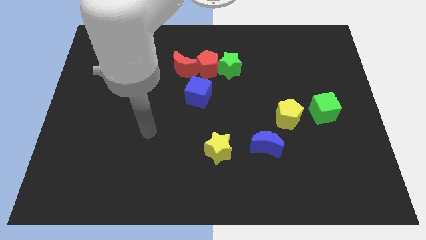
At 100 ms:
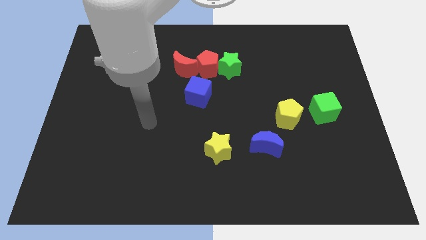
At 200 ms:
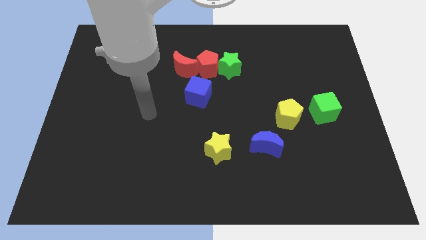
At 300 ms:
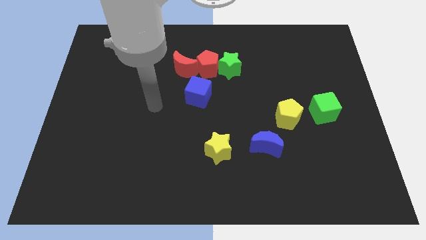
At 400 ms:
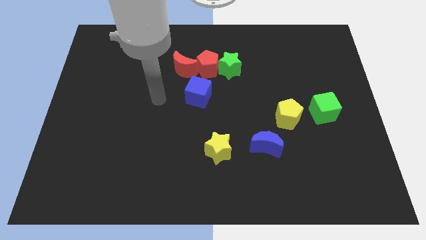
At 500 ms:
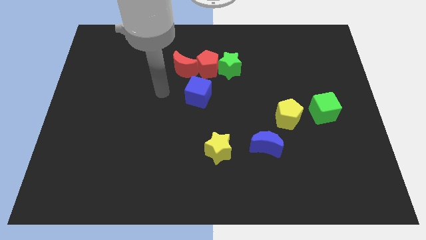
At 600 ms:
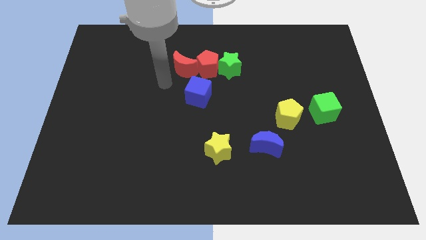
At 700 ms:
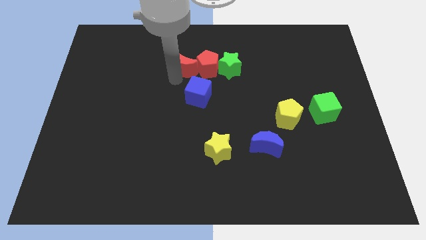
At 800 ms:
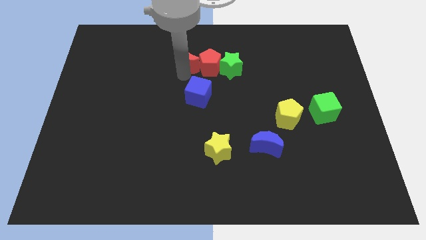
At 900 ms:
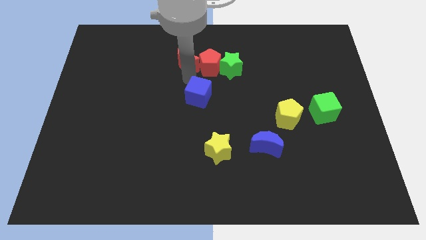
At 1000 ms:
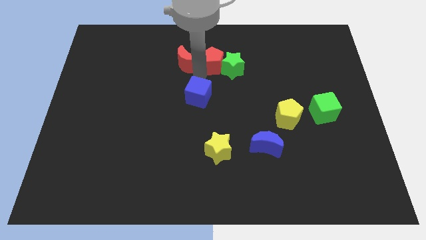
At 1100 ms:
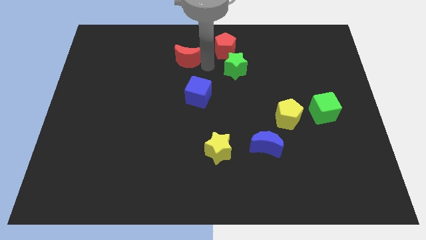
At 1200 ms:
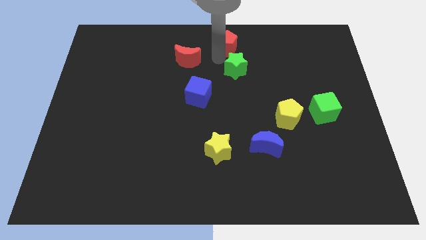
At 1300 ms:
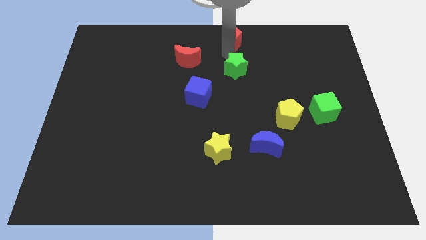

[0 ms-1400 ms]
separate the green star from the red pentagon

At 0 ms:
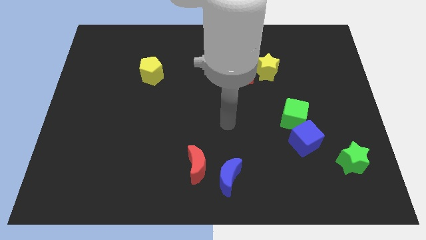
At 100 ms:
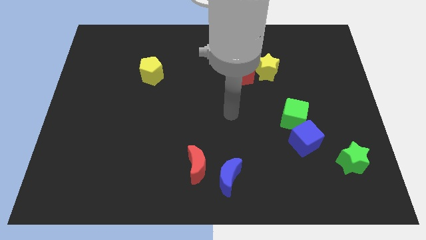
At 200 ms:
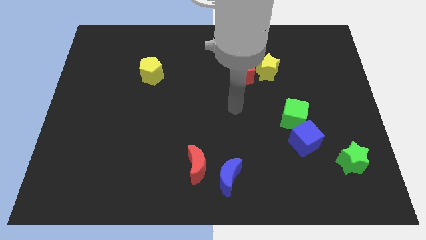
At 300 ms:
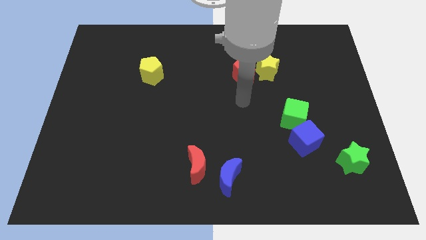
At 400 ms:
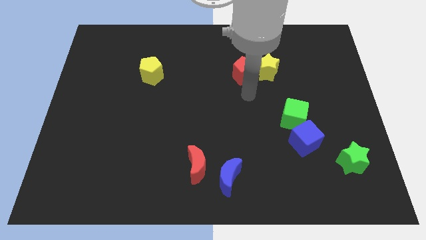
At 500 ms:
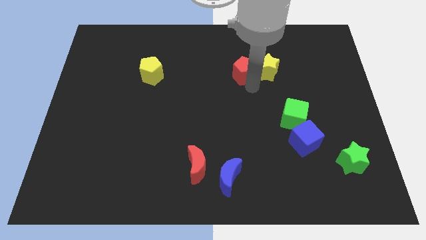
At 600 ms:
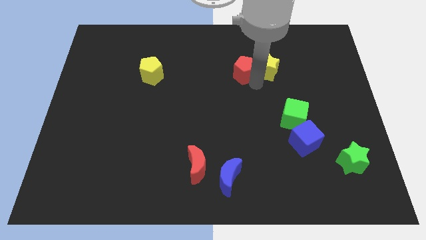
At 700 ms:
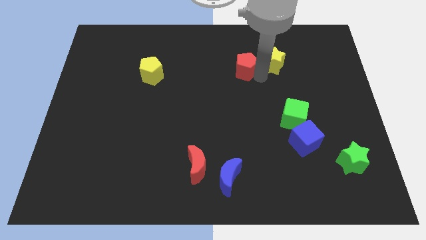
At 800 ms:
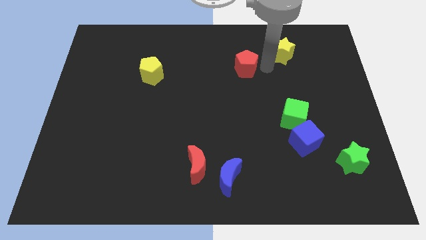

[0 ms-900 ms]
separate the red pentagon from the yellow star

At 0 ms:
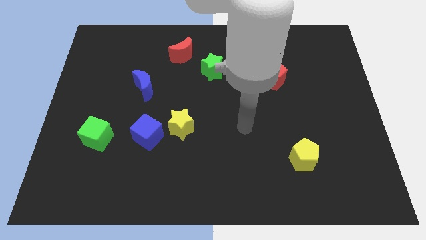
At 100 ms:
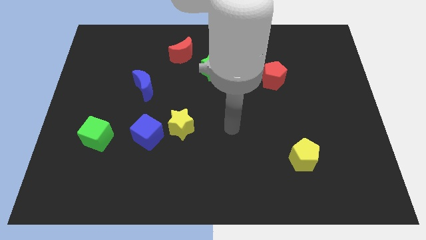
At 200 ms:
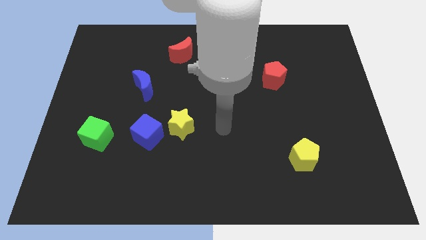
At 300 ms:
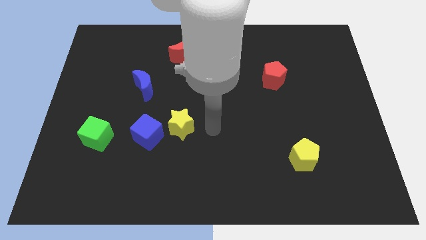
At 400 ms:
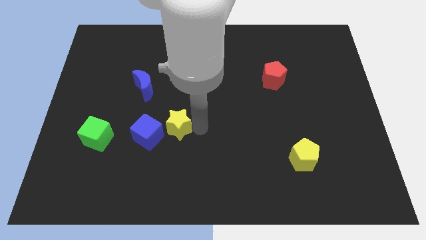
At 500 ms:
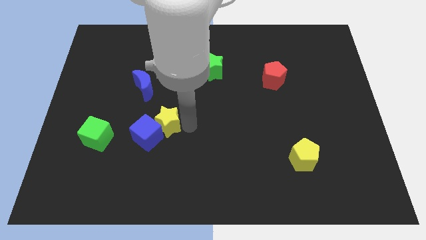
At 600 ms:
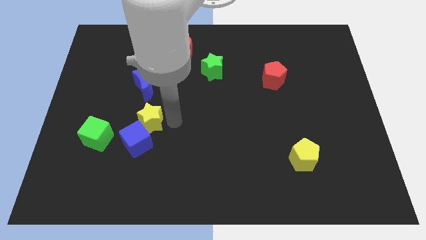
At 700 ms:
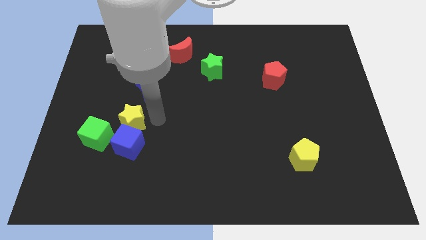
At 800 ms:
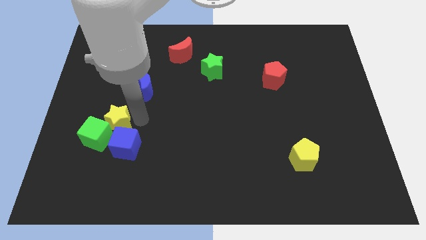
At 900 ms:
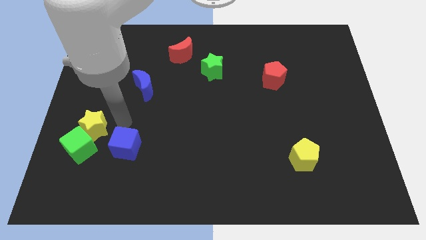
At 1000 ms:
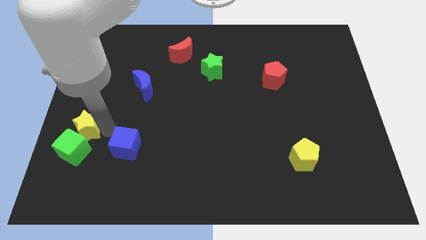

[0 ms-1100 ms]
separate the blue cube from the yellow star

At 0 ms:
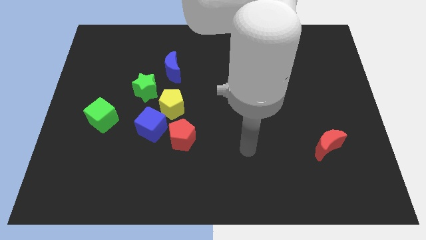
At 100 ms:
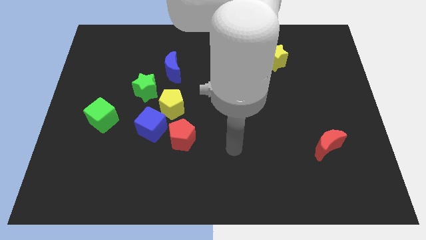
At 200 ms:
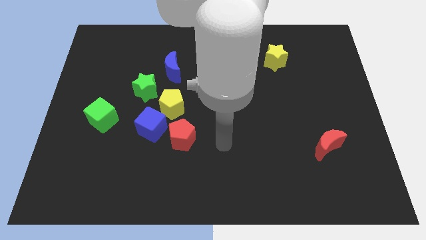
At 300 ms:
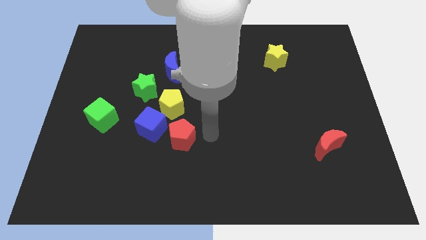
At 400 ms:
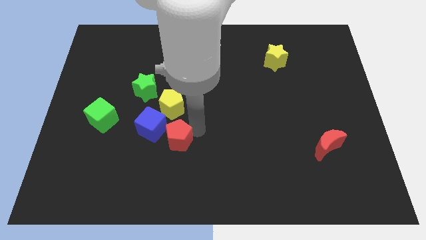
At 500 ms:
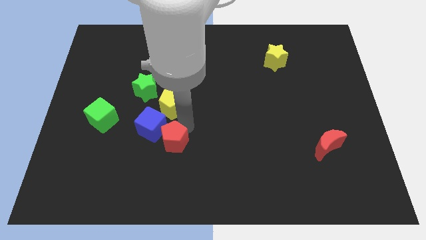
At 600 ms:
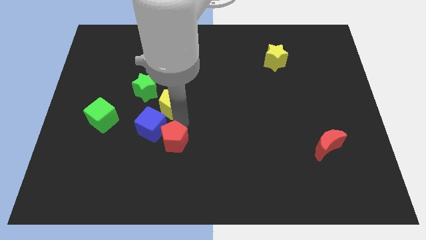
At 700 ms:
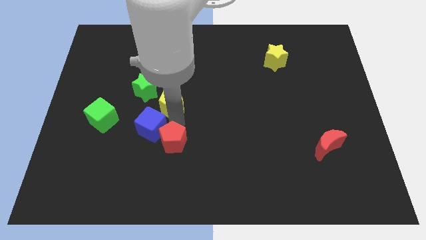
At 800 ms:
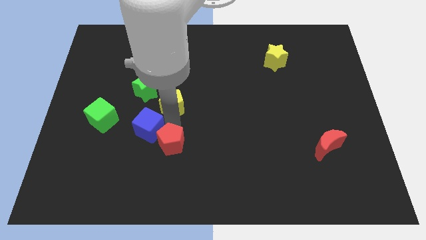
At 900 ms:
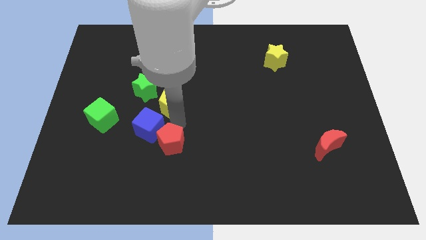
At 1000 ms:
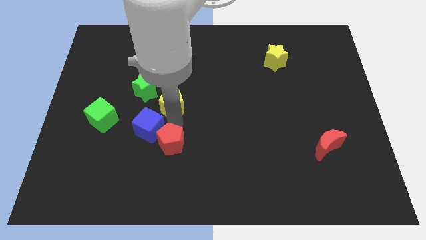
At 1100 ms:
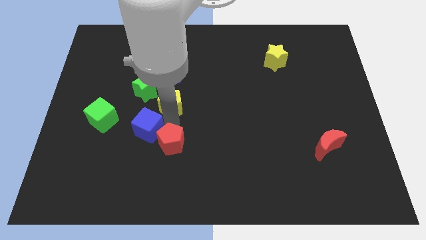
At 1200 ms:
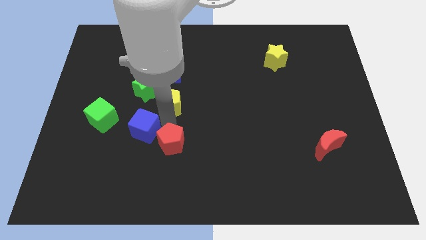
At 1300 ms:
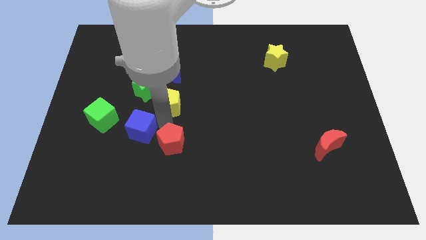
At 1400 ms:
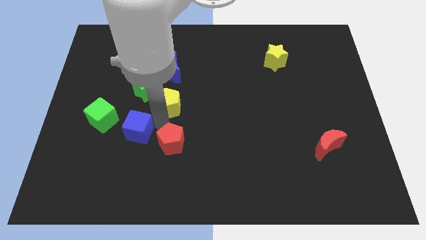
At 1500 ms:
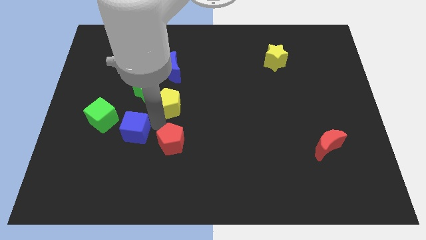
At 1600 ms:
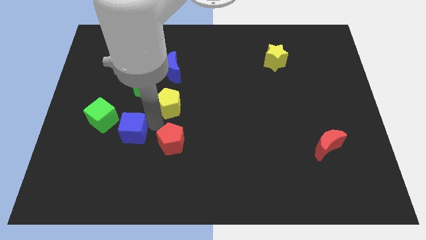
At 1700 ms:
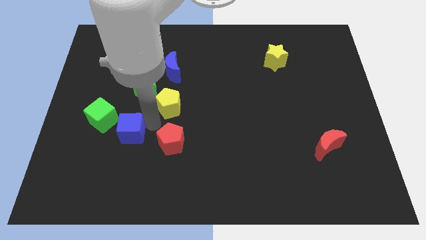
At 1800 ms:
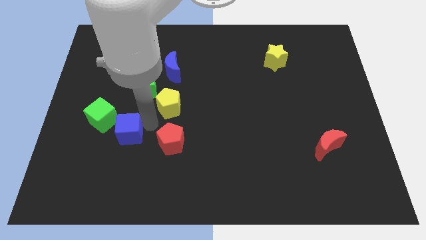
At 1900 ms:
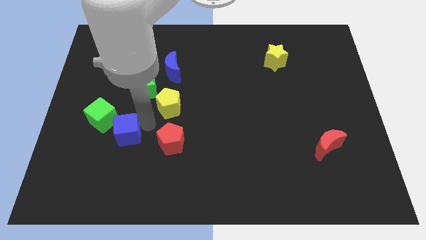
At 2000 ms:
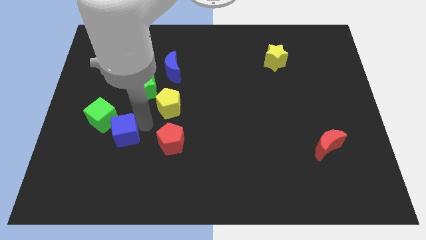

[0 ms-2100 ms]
move the blue cube away from the yellow pentagon and red pentagon

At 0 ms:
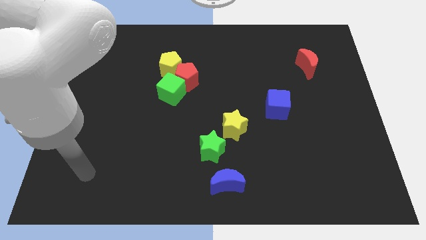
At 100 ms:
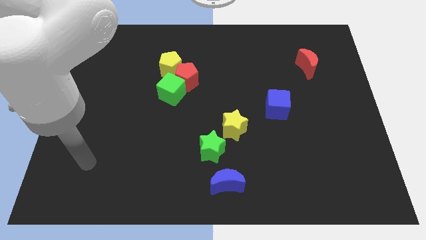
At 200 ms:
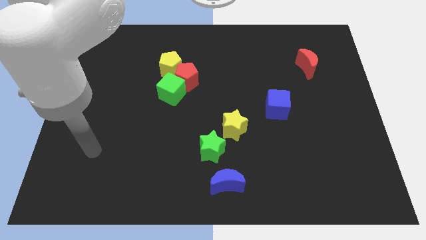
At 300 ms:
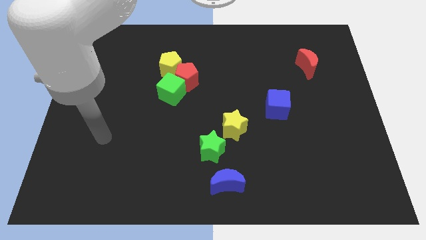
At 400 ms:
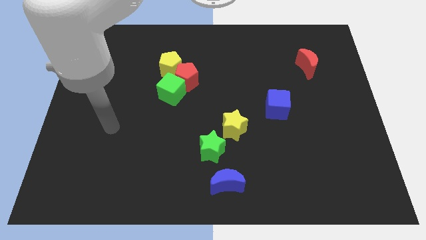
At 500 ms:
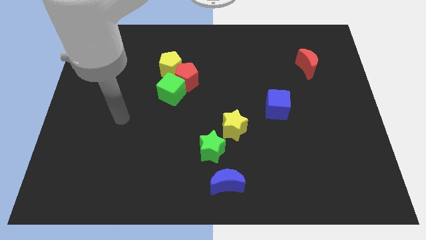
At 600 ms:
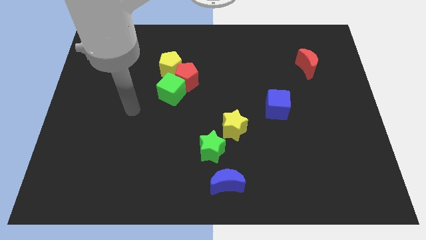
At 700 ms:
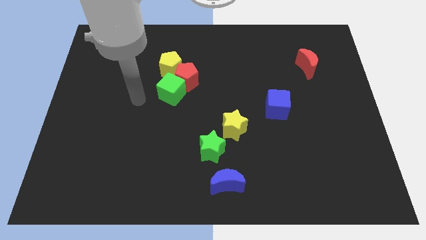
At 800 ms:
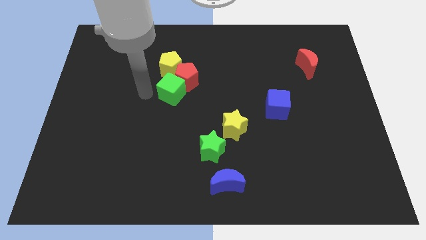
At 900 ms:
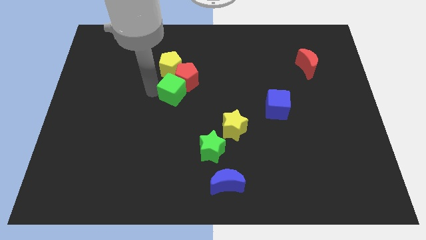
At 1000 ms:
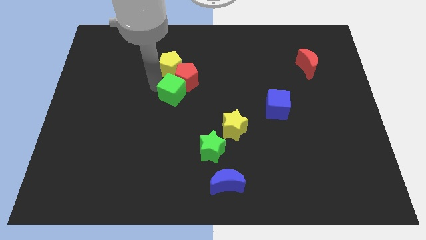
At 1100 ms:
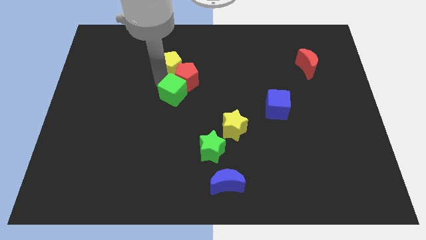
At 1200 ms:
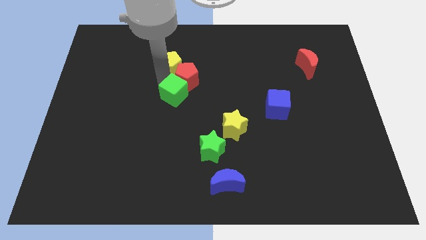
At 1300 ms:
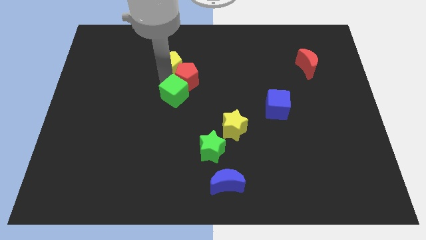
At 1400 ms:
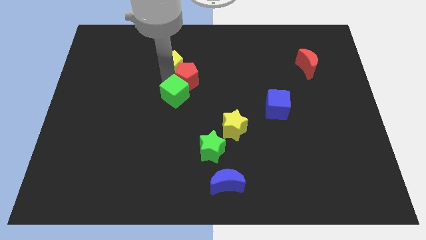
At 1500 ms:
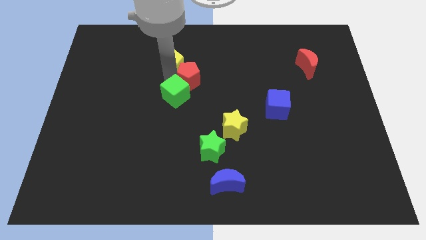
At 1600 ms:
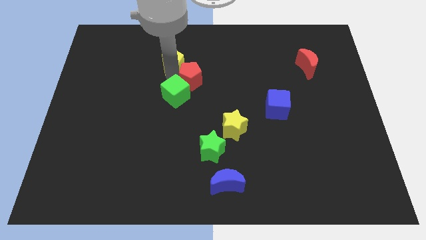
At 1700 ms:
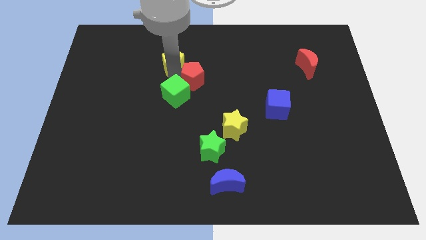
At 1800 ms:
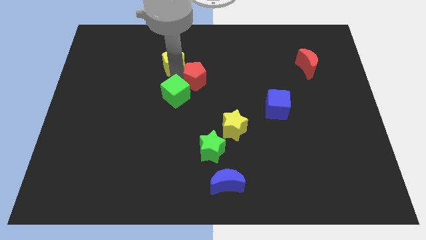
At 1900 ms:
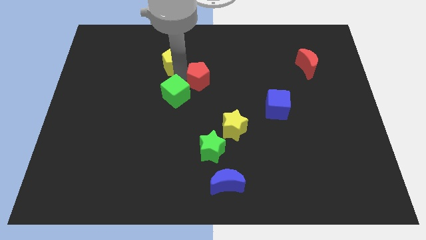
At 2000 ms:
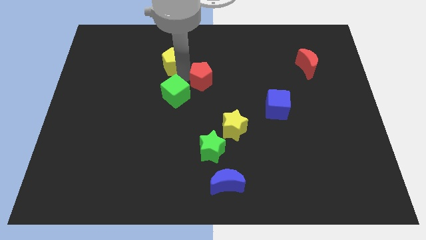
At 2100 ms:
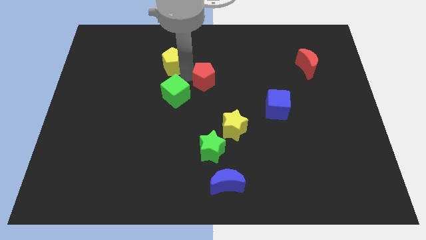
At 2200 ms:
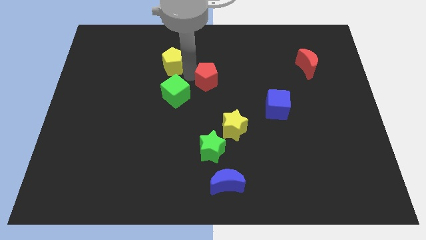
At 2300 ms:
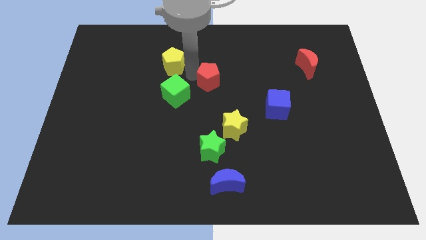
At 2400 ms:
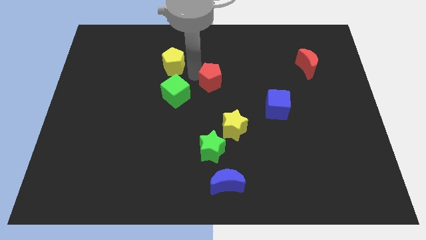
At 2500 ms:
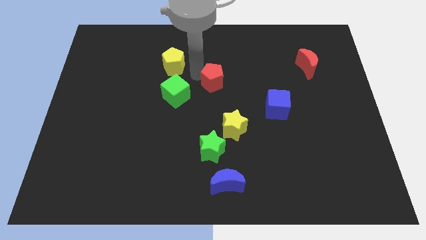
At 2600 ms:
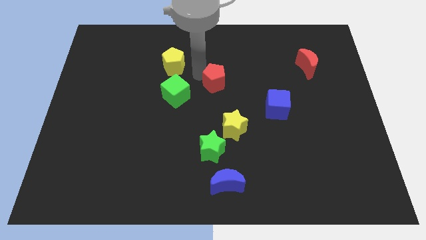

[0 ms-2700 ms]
move the red pentagon away from the green cube and yellow pentagon

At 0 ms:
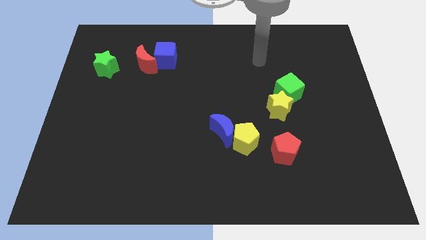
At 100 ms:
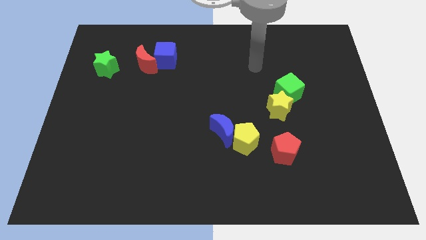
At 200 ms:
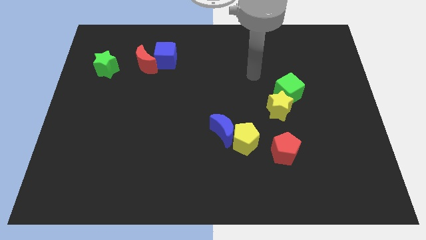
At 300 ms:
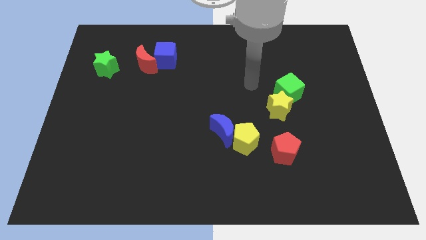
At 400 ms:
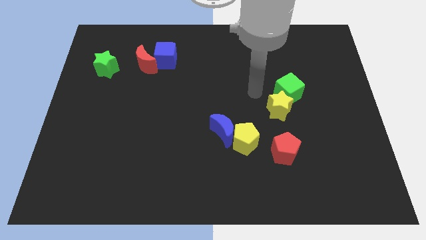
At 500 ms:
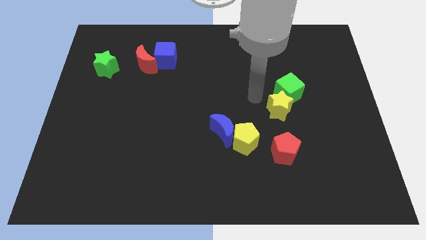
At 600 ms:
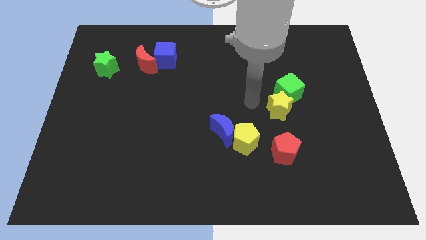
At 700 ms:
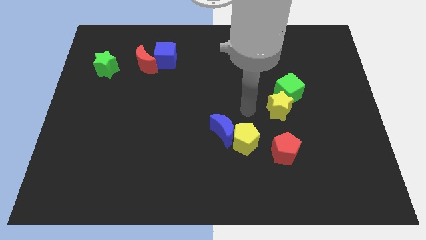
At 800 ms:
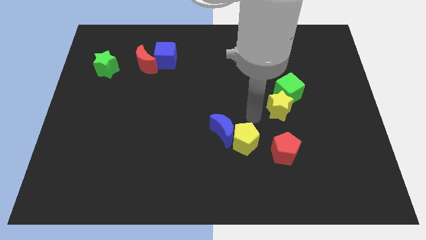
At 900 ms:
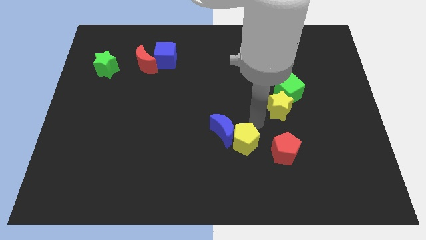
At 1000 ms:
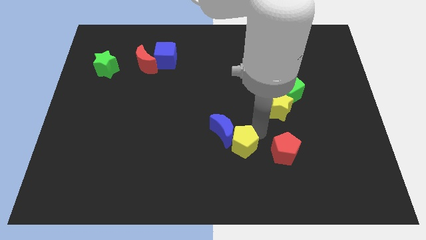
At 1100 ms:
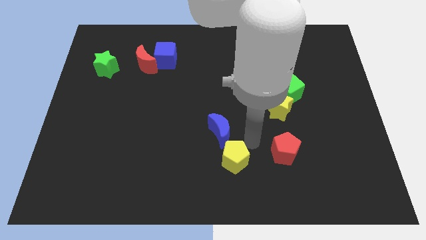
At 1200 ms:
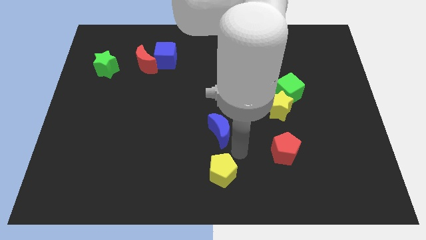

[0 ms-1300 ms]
pull the blue moon apart from the yellow pentagon

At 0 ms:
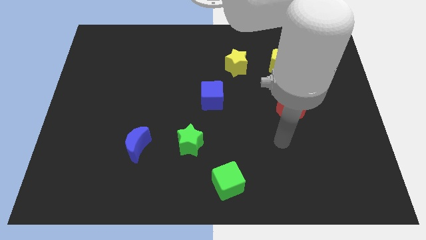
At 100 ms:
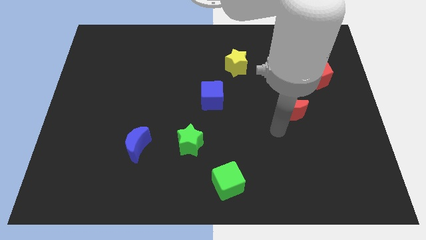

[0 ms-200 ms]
move the red pentagon away from the yellow pentagon
